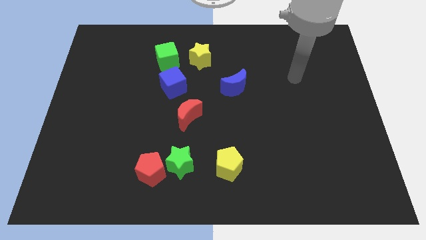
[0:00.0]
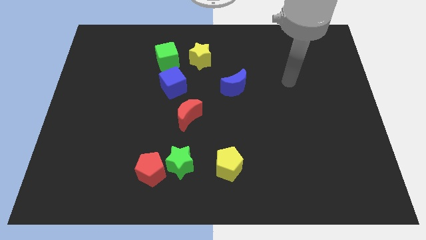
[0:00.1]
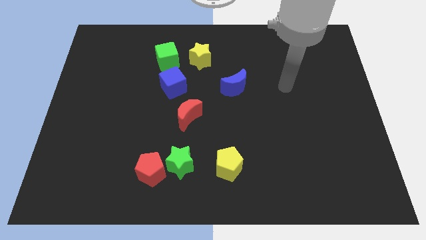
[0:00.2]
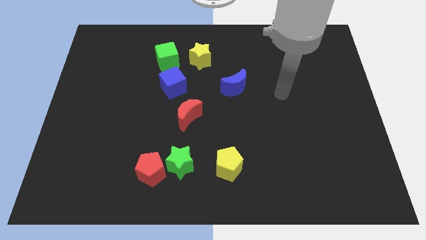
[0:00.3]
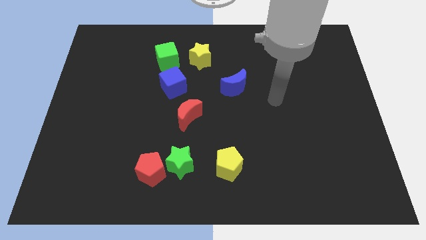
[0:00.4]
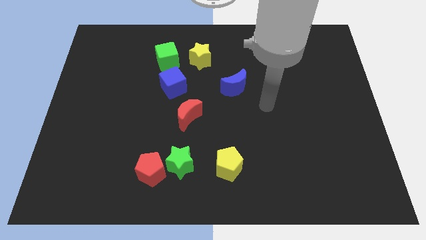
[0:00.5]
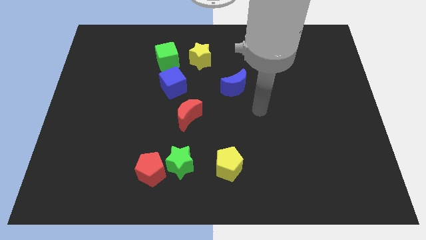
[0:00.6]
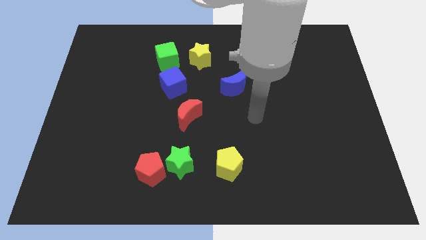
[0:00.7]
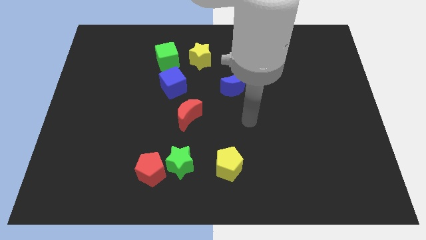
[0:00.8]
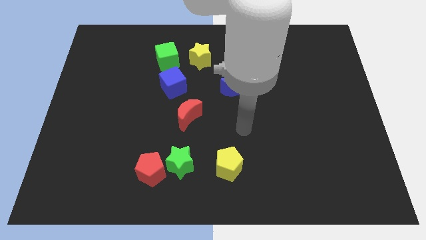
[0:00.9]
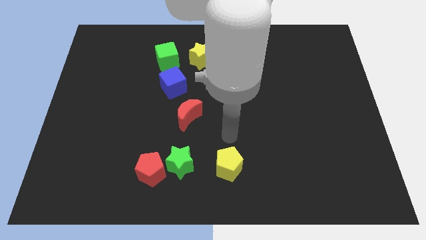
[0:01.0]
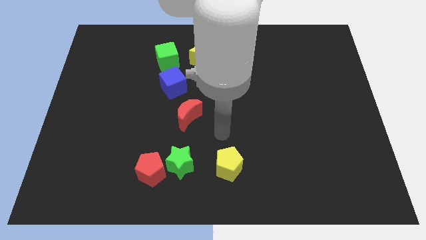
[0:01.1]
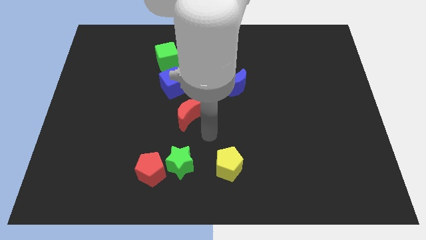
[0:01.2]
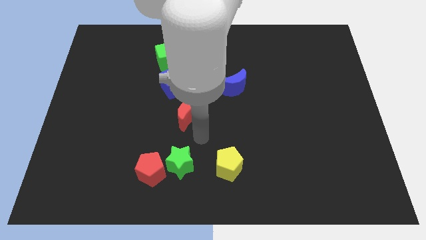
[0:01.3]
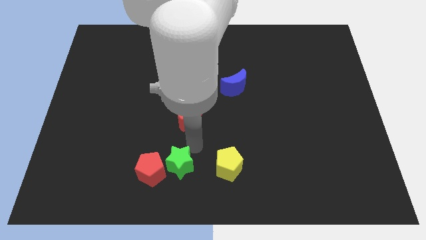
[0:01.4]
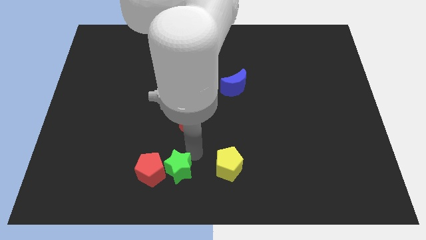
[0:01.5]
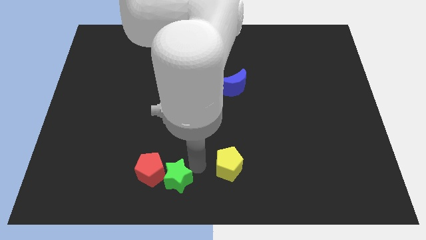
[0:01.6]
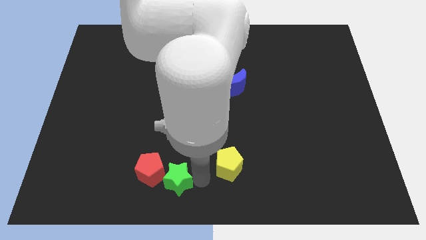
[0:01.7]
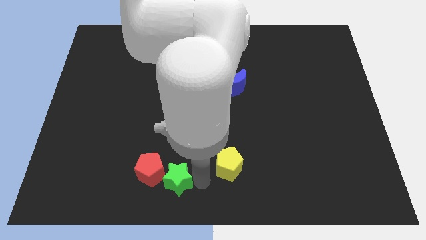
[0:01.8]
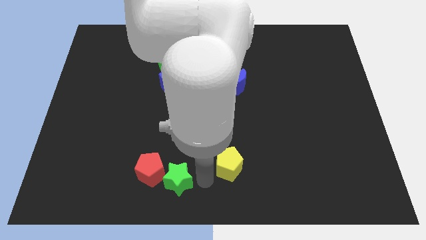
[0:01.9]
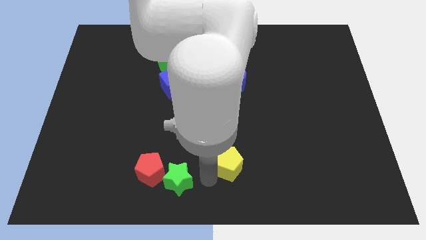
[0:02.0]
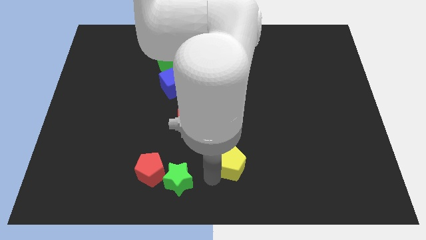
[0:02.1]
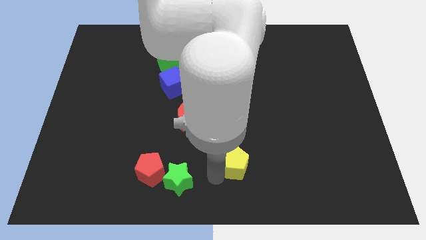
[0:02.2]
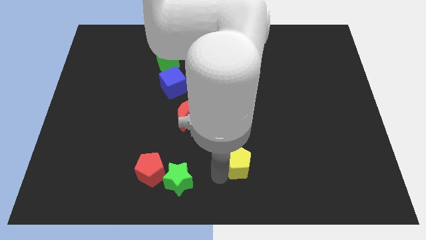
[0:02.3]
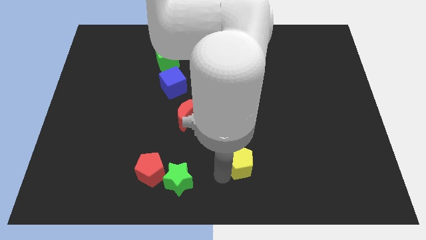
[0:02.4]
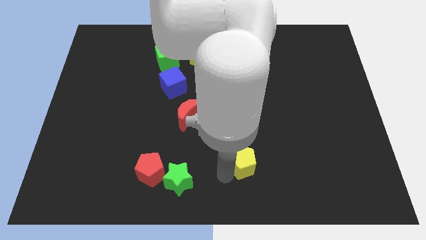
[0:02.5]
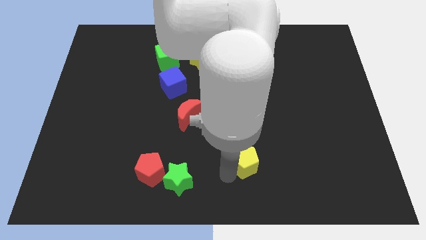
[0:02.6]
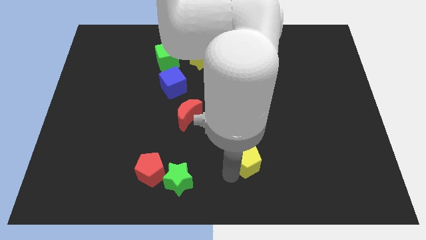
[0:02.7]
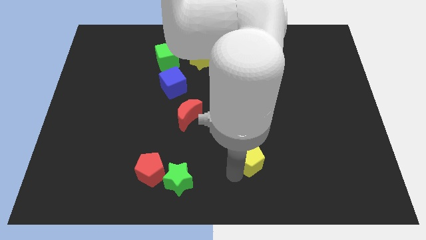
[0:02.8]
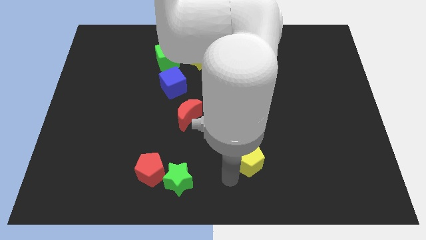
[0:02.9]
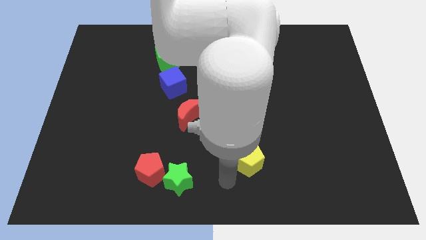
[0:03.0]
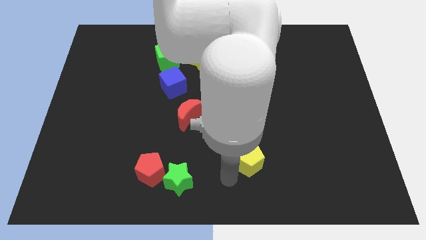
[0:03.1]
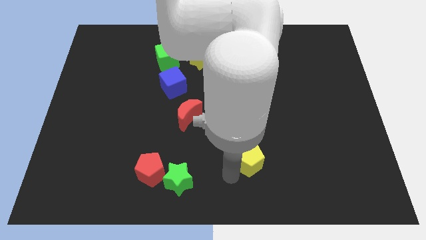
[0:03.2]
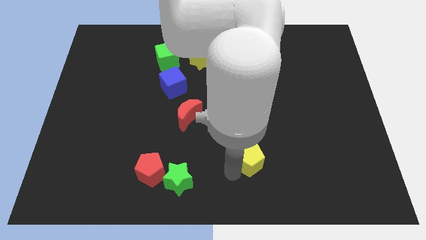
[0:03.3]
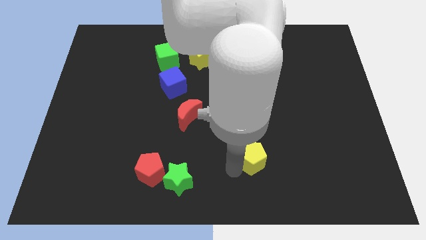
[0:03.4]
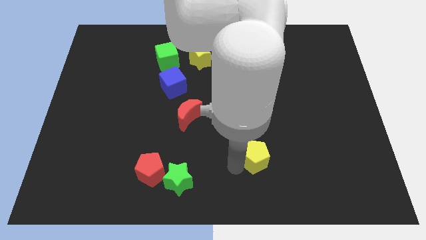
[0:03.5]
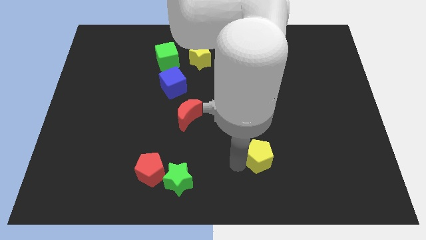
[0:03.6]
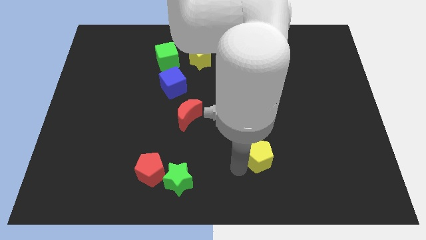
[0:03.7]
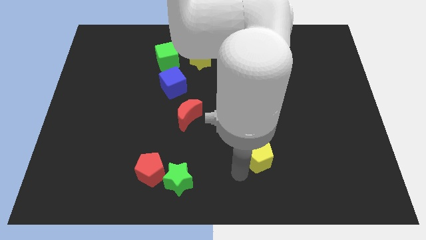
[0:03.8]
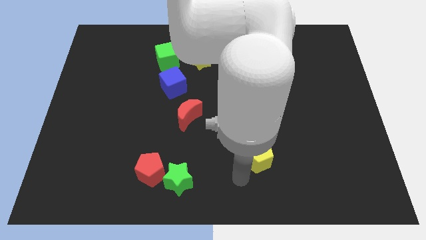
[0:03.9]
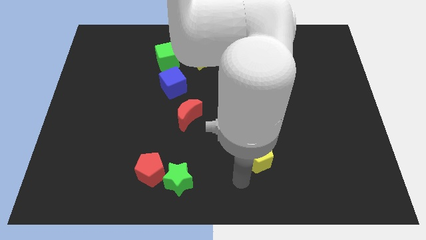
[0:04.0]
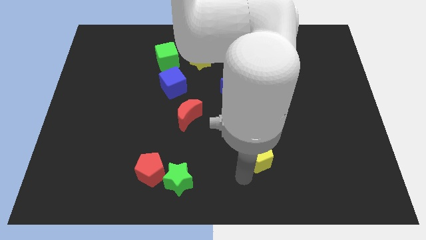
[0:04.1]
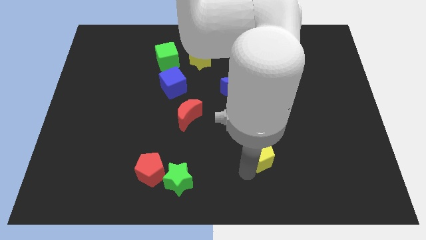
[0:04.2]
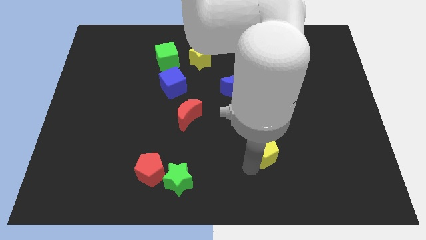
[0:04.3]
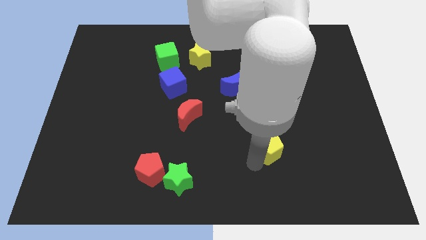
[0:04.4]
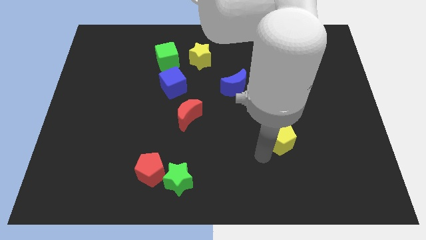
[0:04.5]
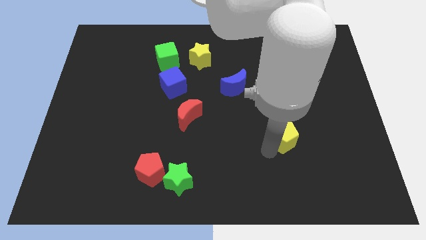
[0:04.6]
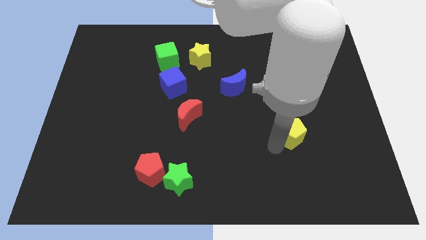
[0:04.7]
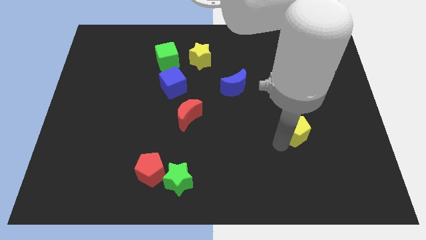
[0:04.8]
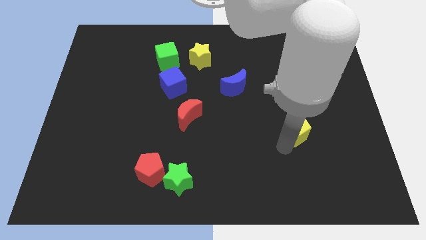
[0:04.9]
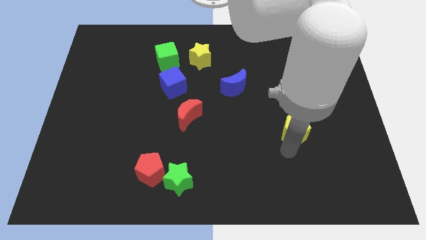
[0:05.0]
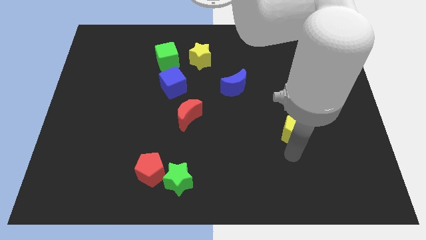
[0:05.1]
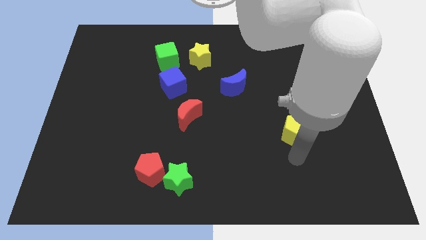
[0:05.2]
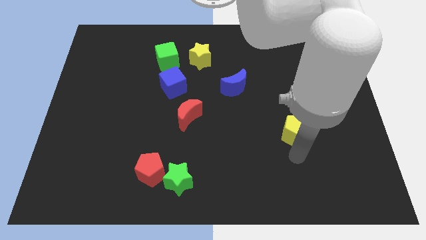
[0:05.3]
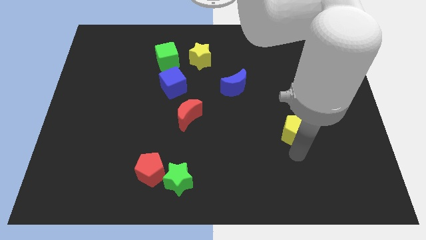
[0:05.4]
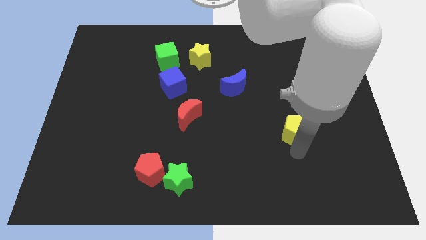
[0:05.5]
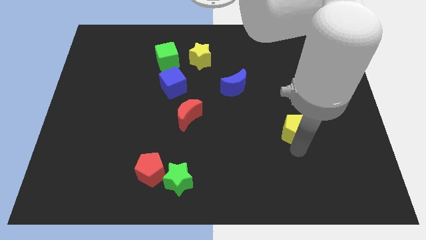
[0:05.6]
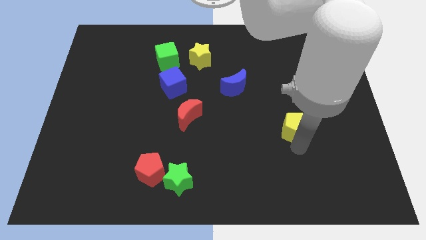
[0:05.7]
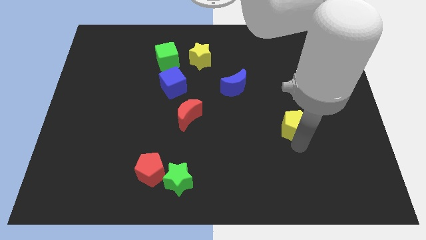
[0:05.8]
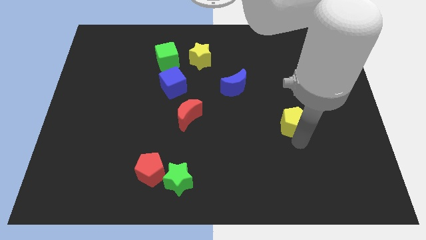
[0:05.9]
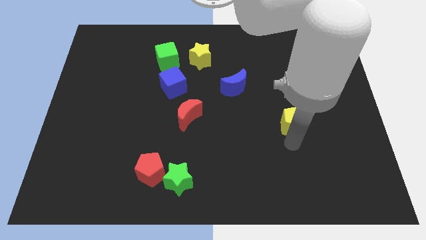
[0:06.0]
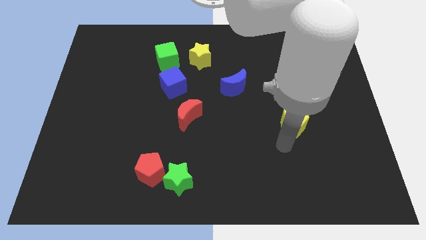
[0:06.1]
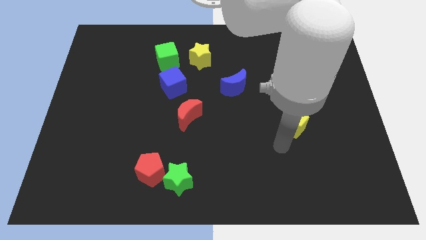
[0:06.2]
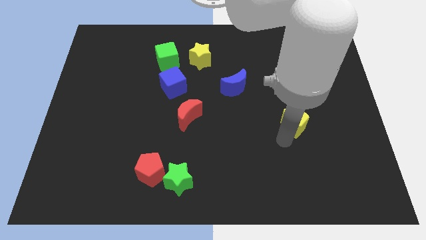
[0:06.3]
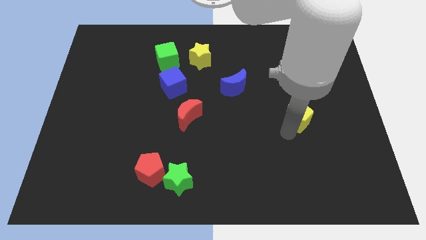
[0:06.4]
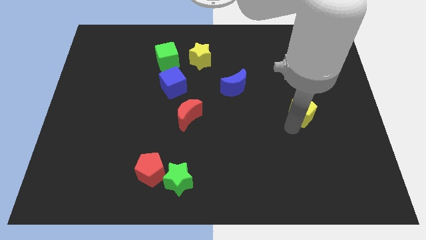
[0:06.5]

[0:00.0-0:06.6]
slide the yellow pentagon upwards and right diagonally

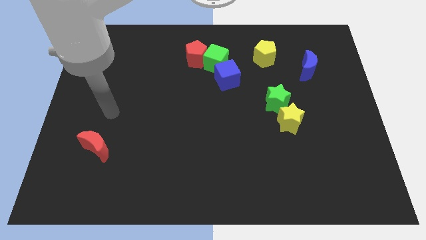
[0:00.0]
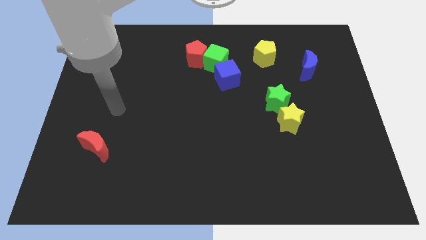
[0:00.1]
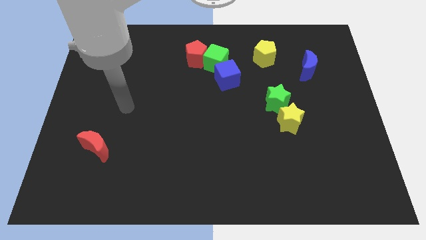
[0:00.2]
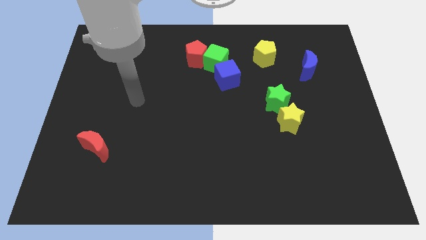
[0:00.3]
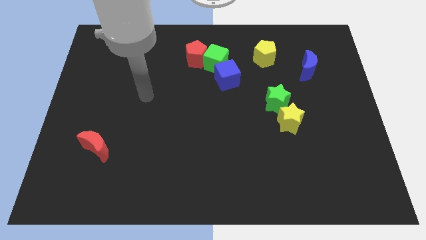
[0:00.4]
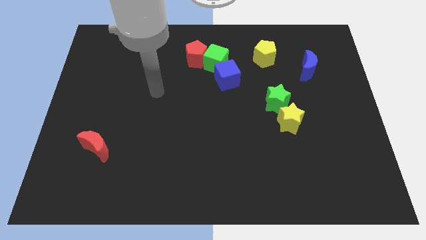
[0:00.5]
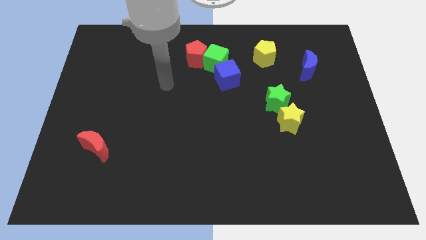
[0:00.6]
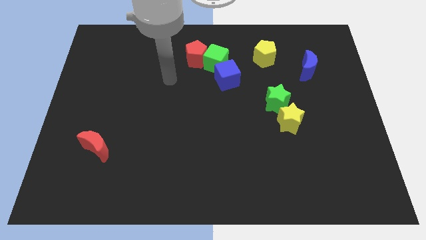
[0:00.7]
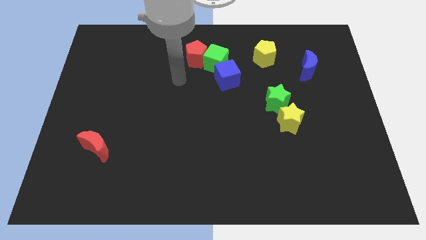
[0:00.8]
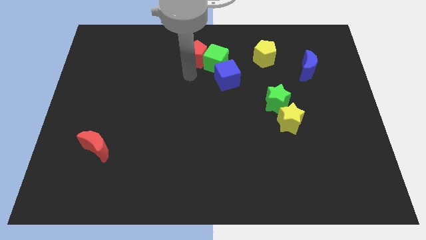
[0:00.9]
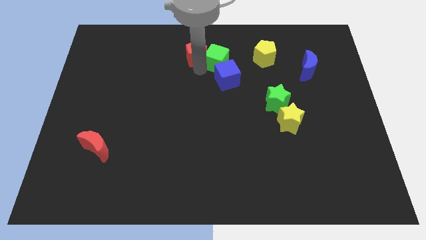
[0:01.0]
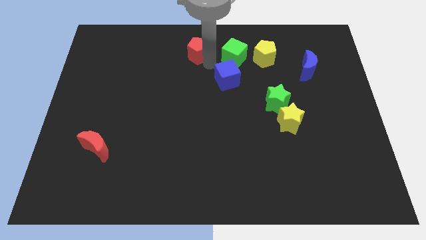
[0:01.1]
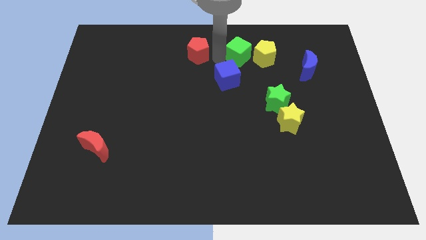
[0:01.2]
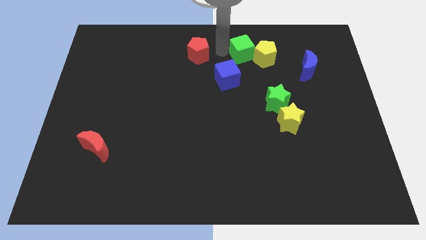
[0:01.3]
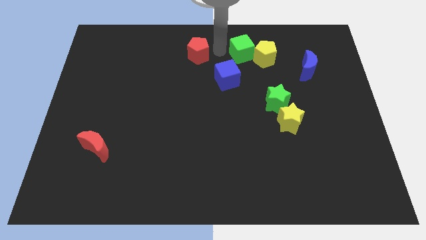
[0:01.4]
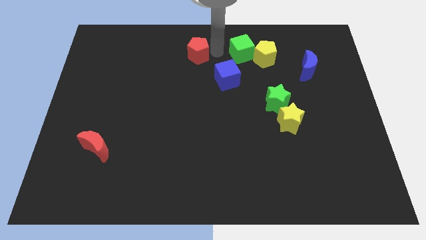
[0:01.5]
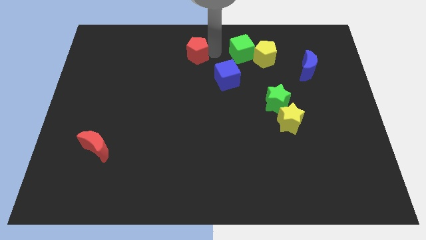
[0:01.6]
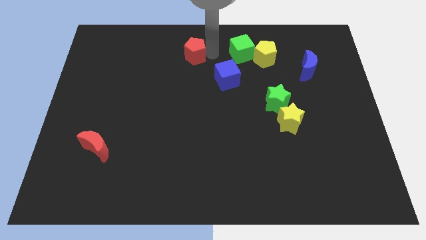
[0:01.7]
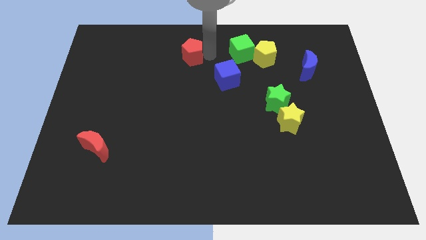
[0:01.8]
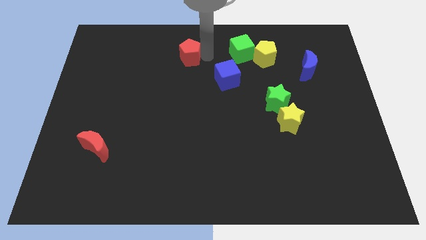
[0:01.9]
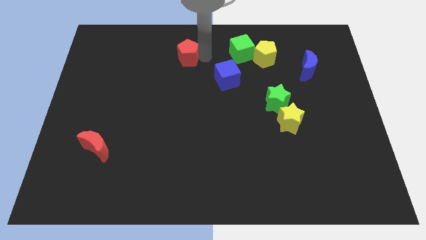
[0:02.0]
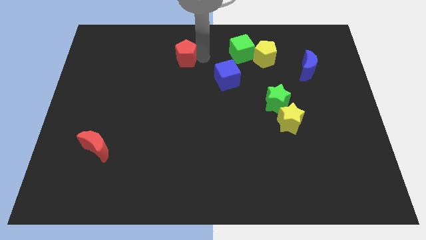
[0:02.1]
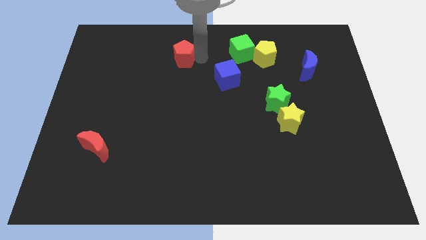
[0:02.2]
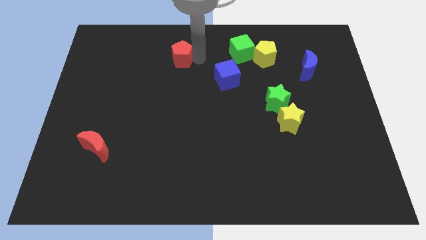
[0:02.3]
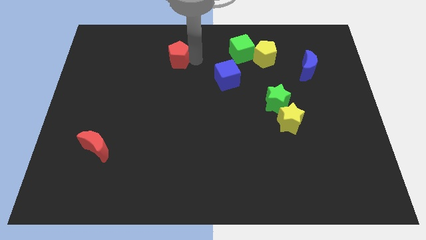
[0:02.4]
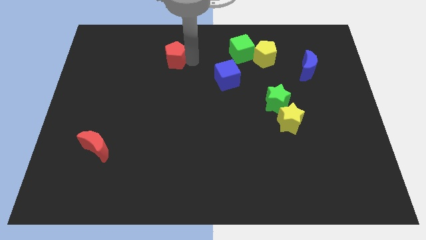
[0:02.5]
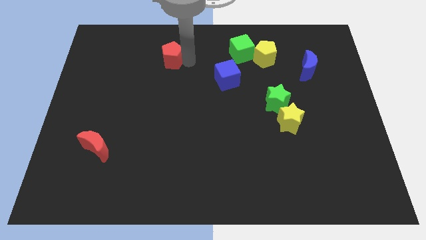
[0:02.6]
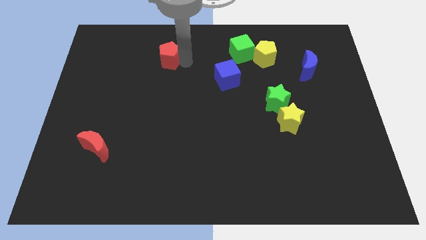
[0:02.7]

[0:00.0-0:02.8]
slide the red pentagon to the left a little bit
